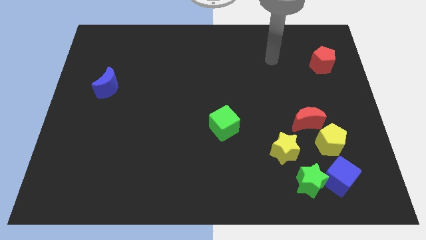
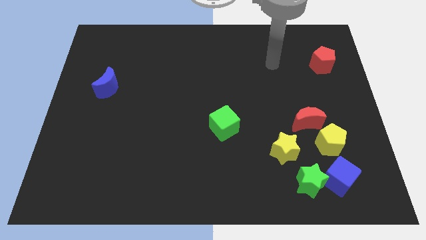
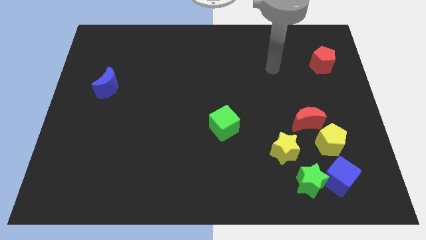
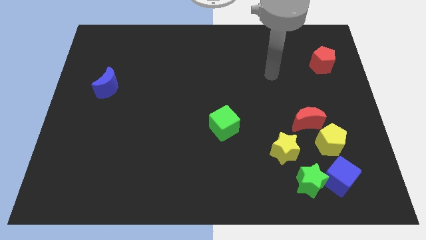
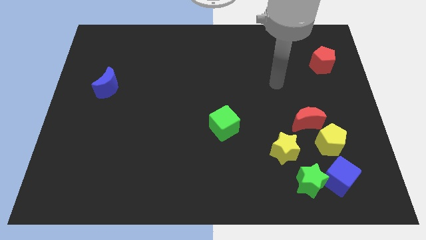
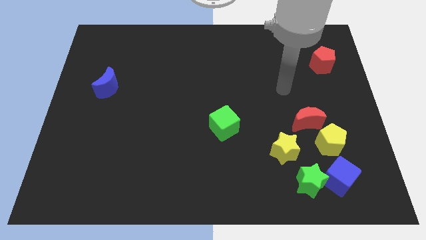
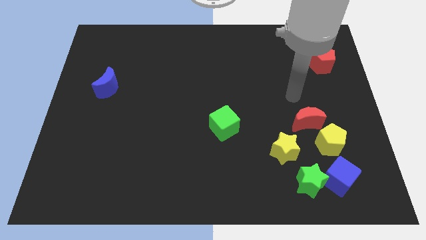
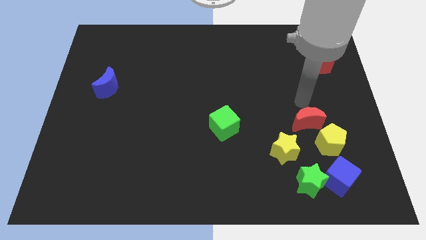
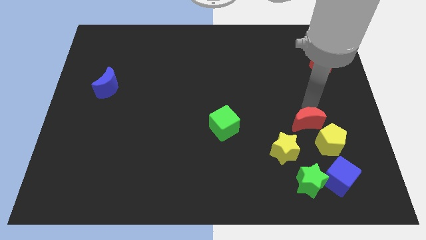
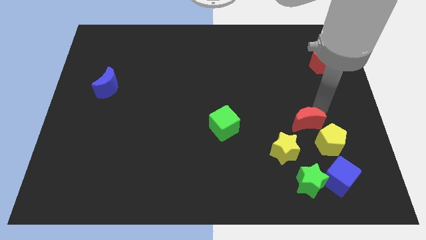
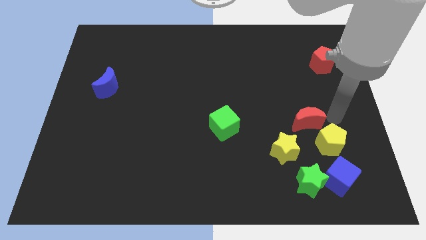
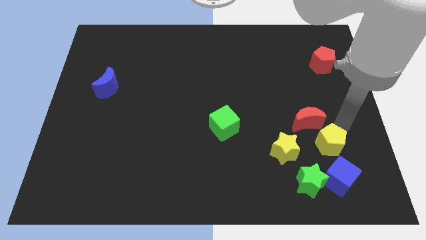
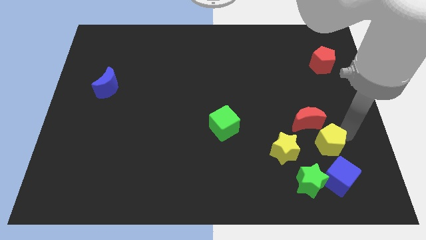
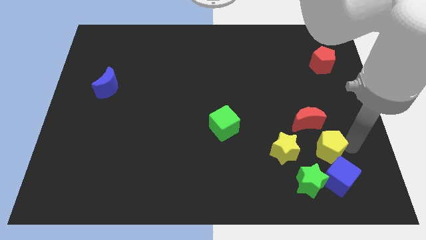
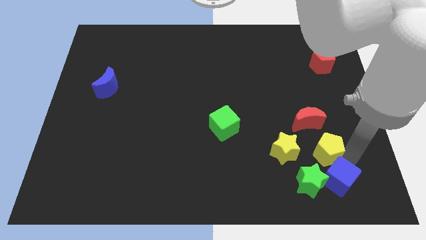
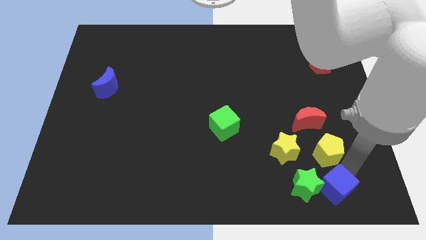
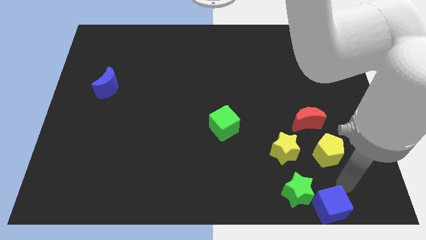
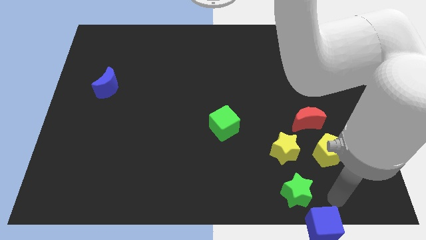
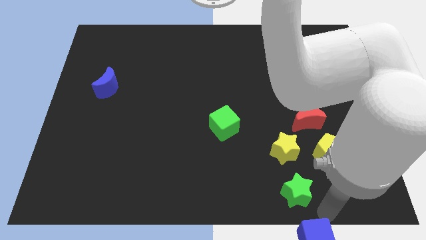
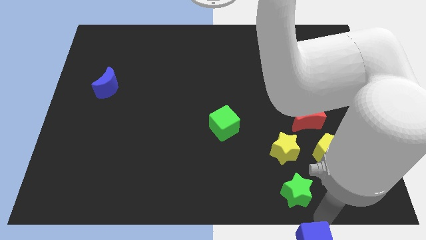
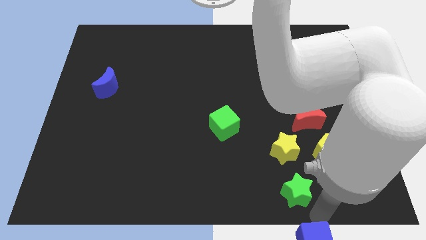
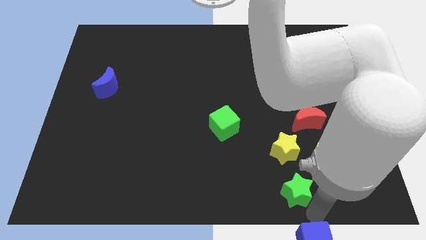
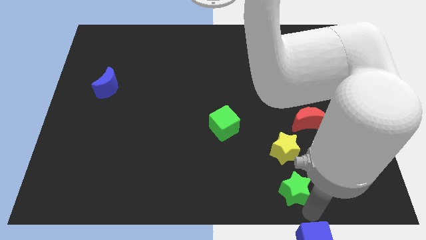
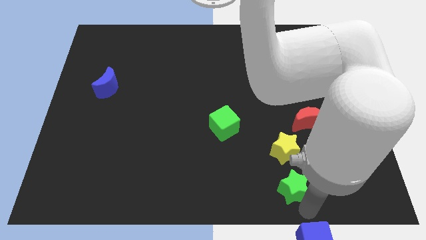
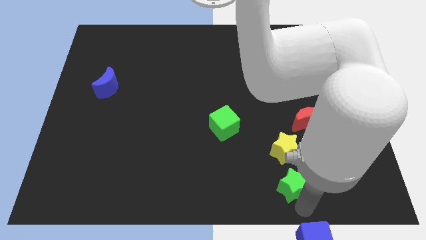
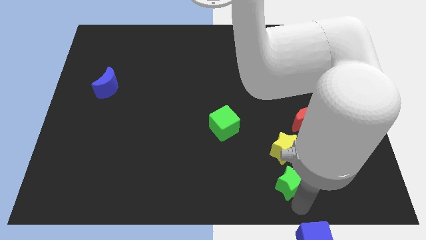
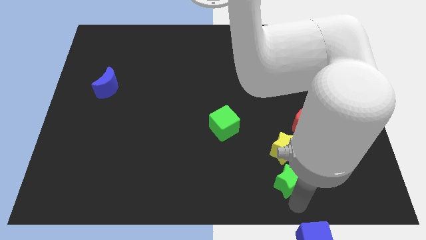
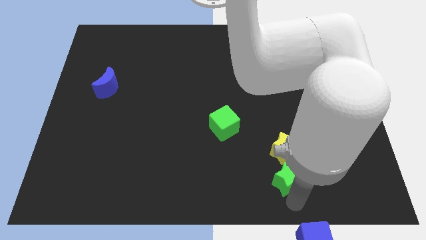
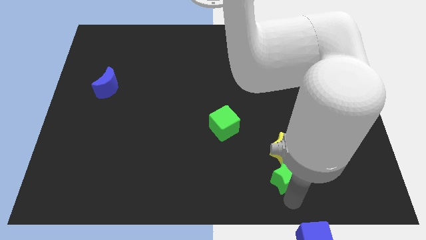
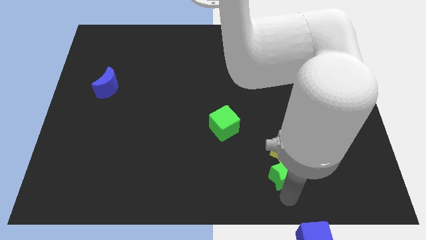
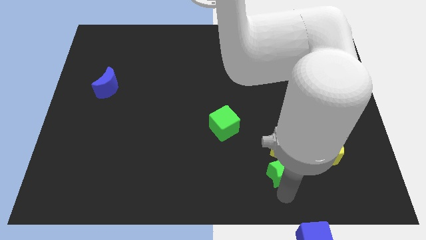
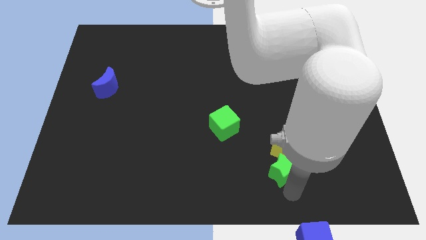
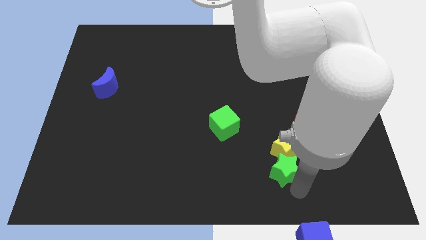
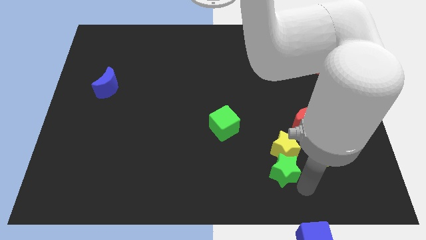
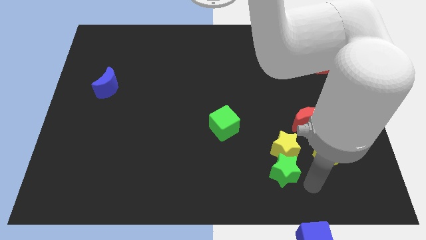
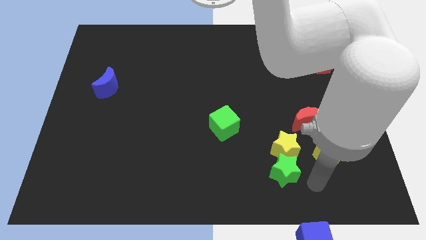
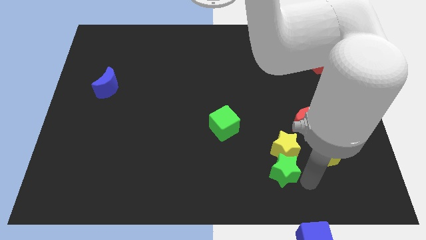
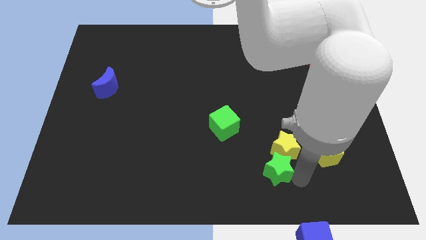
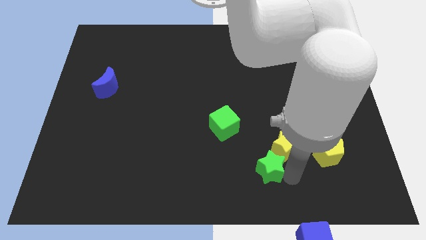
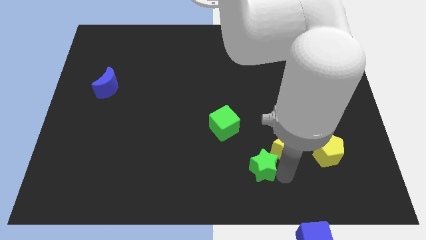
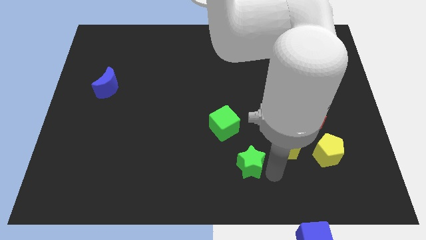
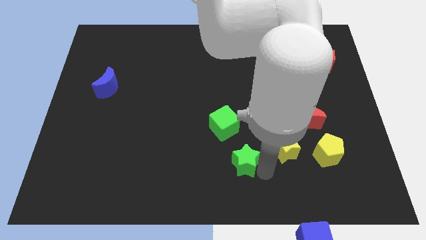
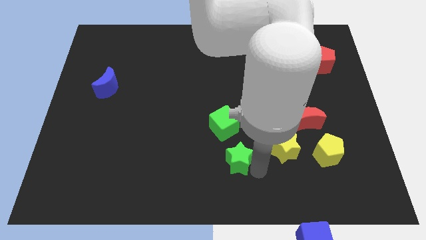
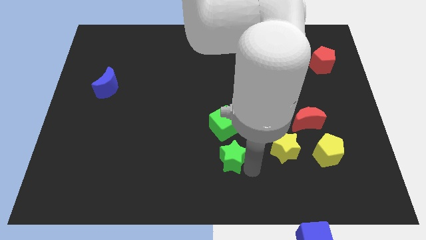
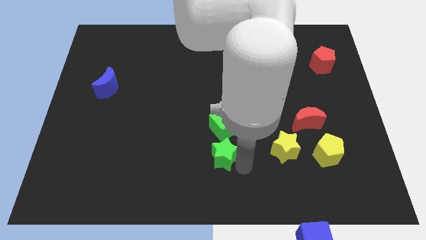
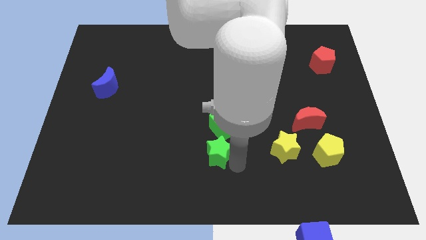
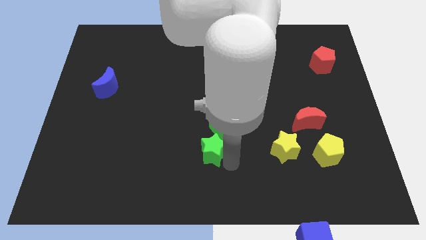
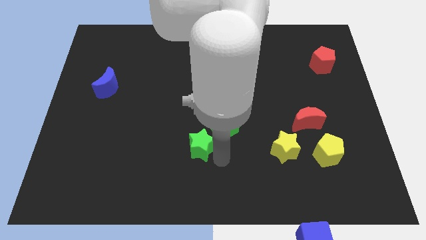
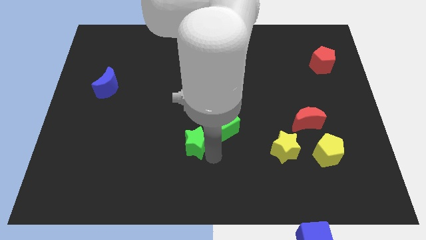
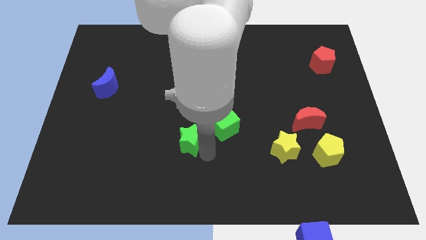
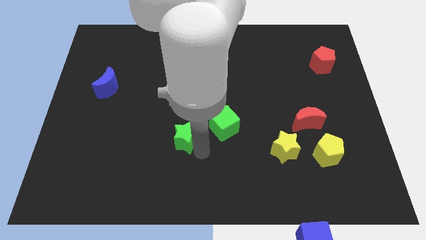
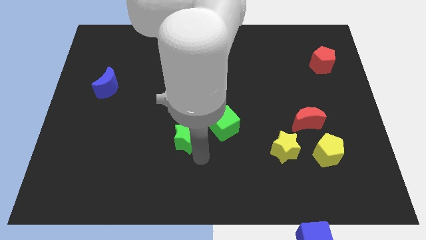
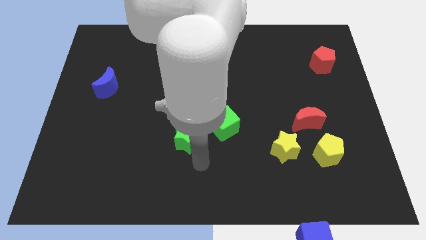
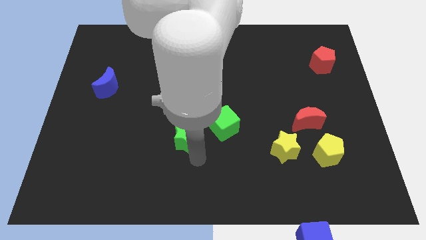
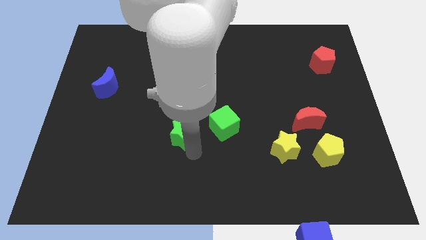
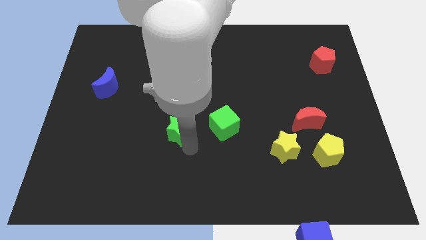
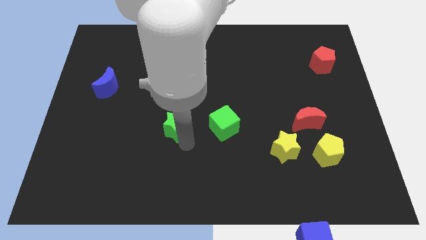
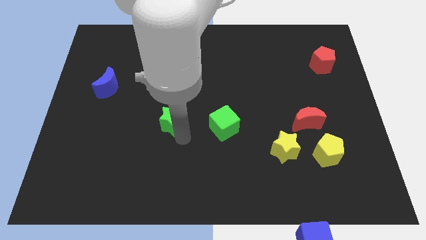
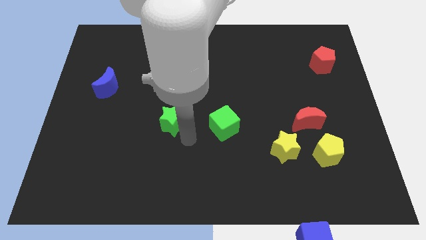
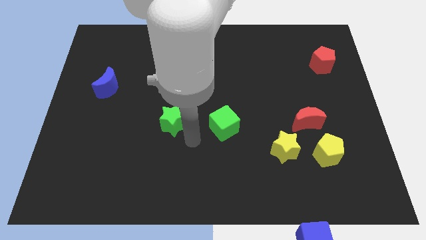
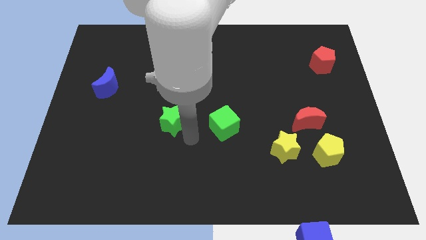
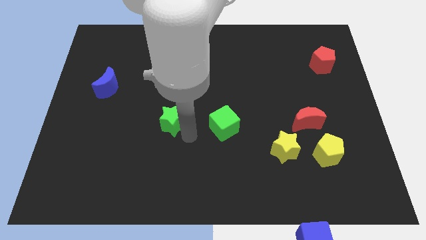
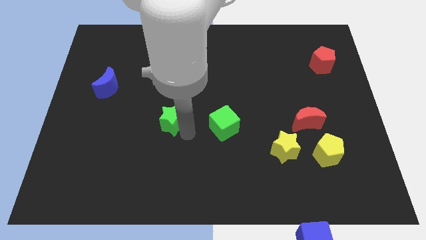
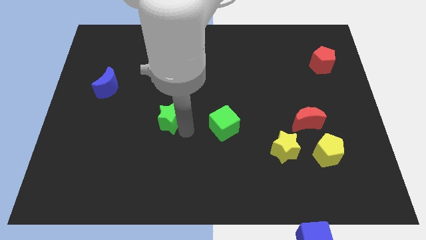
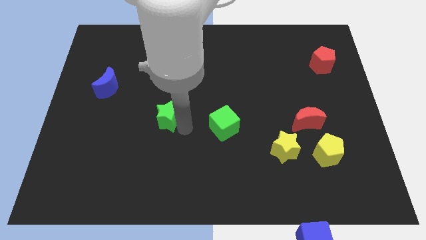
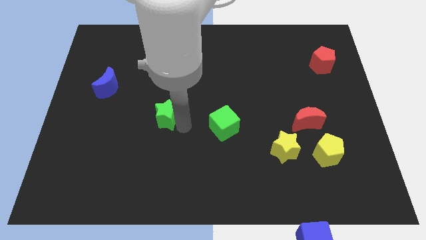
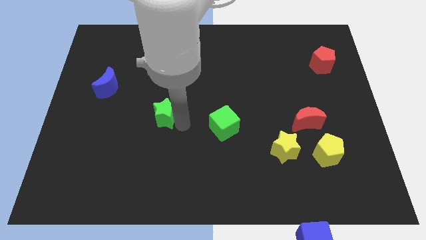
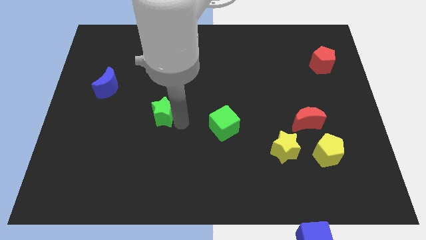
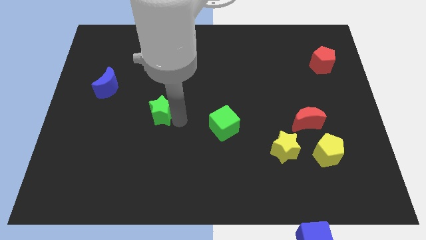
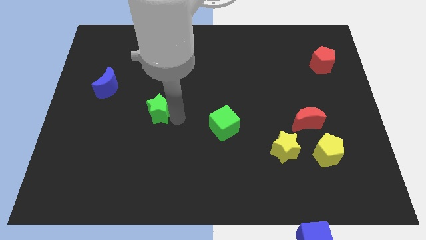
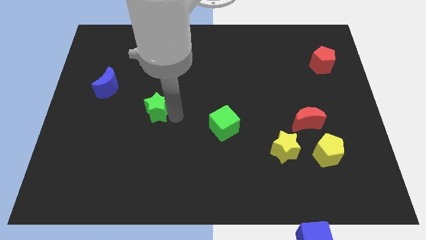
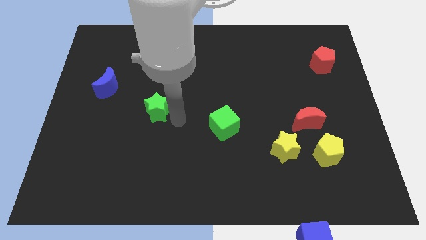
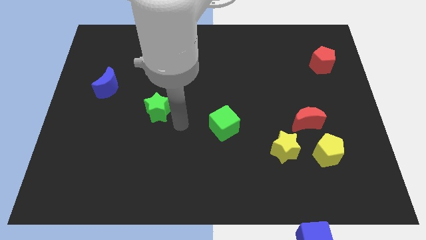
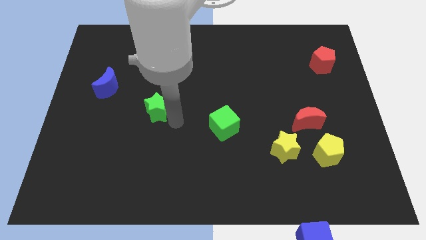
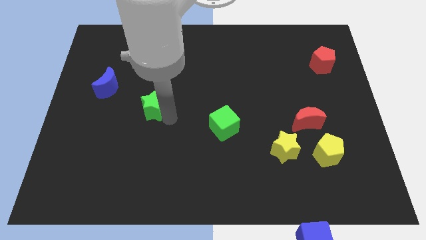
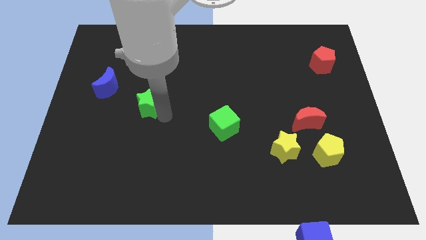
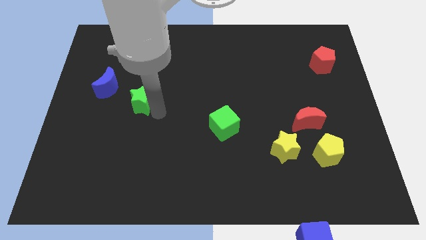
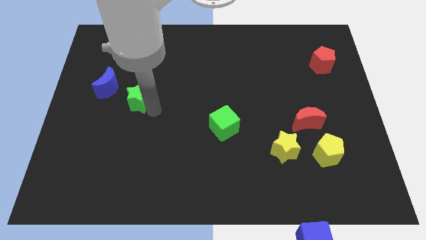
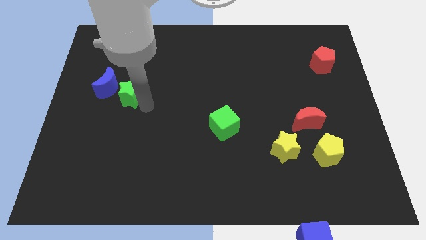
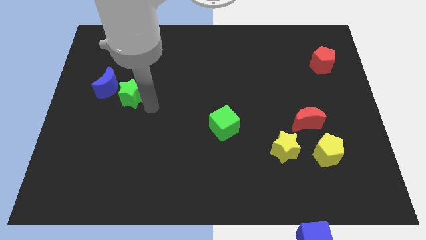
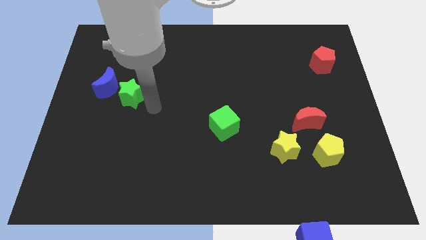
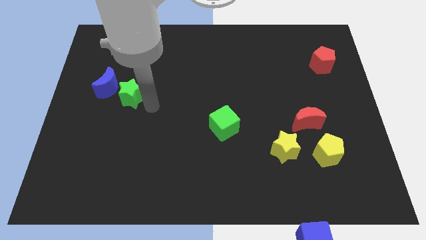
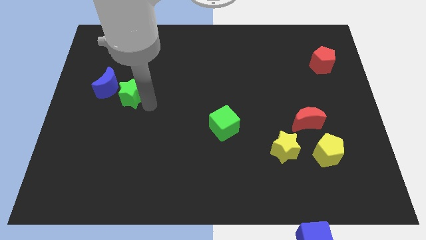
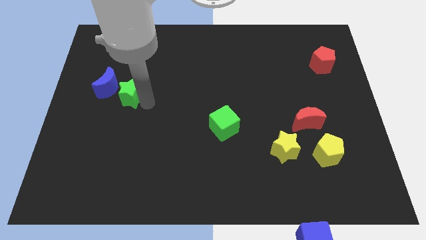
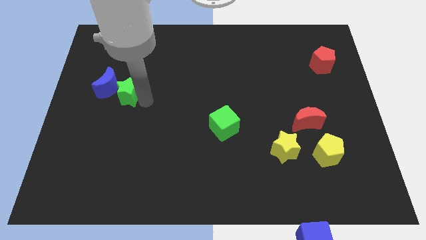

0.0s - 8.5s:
move the green star close to the blue moon
